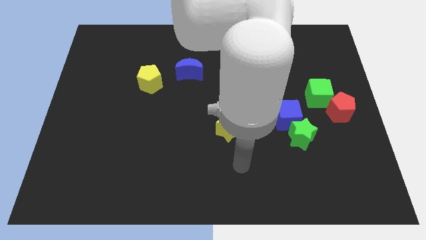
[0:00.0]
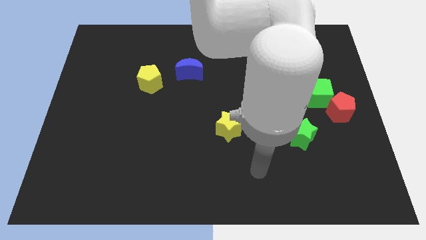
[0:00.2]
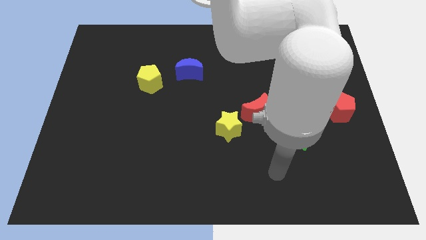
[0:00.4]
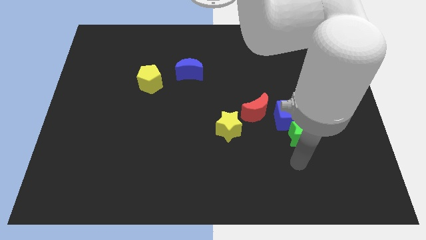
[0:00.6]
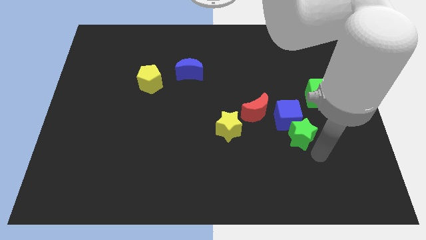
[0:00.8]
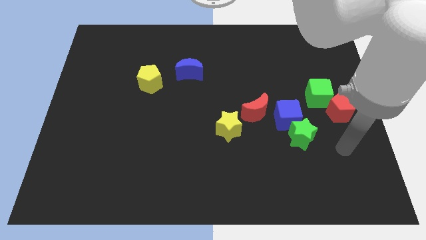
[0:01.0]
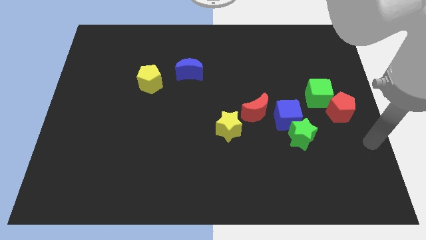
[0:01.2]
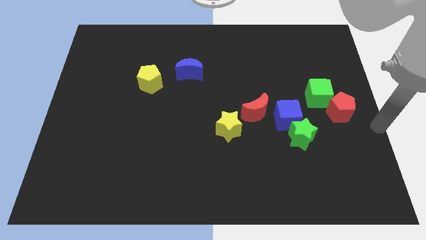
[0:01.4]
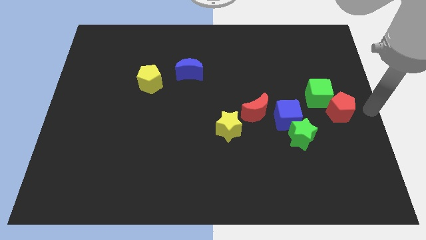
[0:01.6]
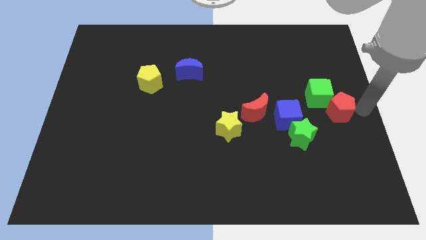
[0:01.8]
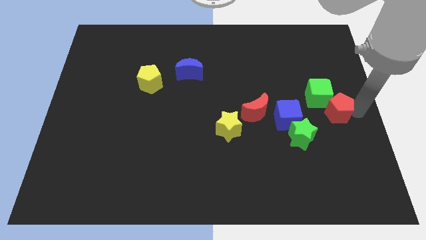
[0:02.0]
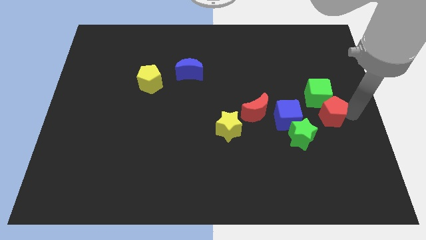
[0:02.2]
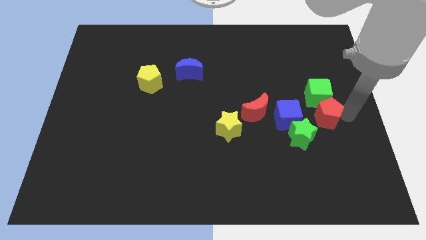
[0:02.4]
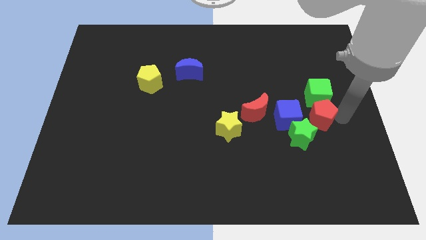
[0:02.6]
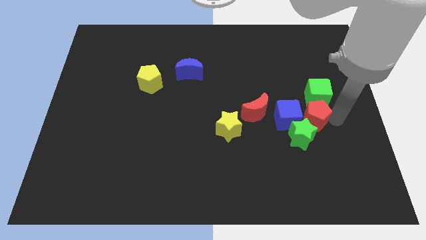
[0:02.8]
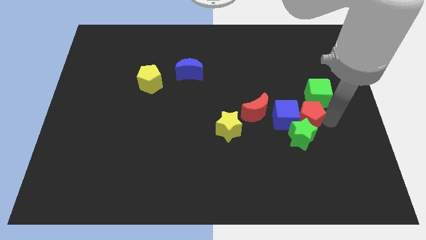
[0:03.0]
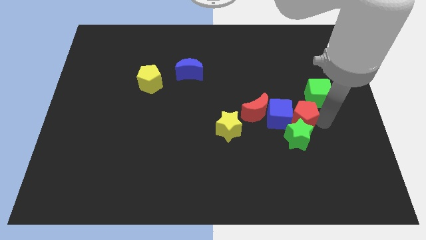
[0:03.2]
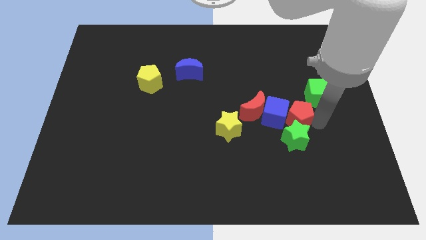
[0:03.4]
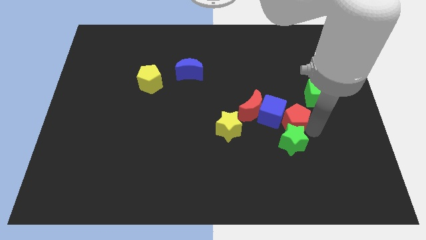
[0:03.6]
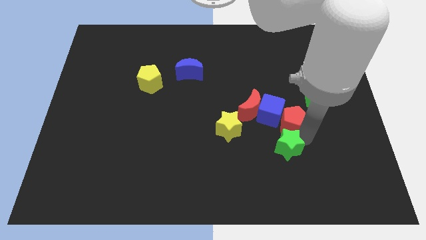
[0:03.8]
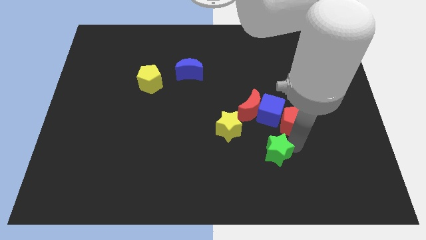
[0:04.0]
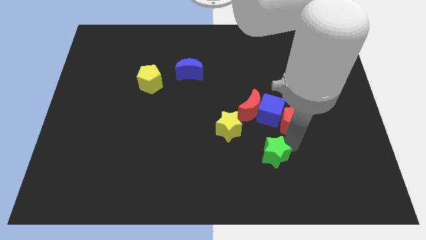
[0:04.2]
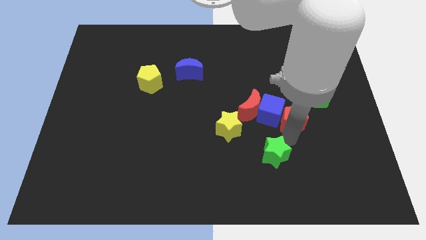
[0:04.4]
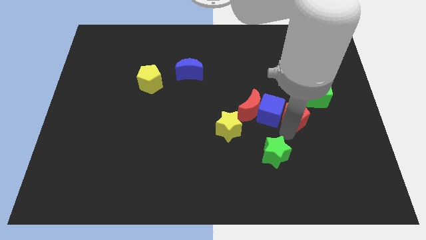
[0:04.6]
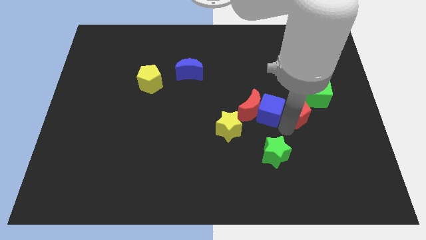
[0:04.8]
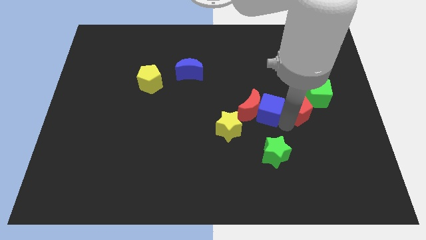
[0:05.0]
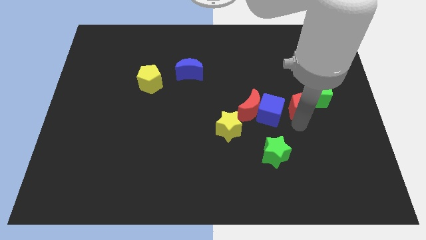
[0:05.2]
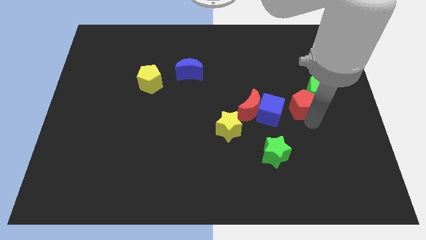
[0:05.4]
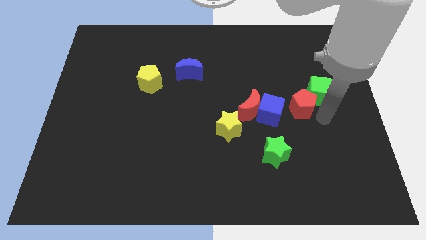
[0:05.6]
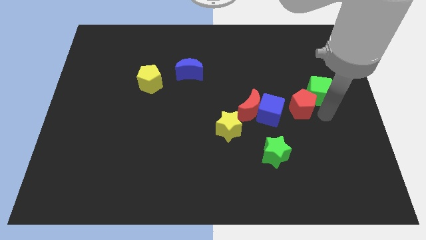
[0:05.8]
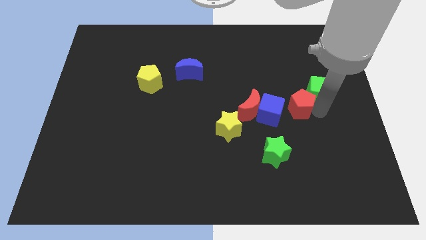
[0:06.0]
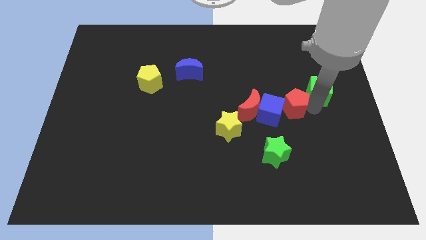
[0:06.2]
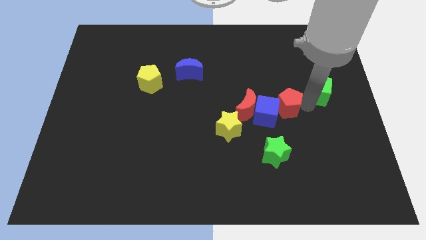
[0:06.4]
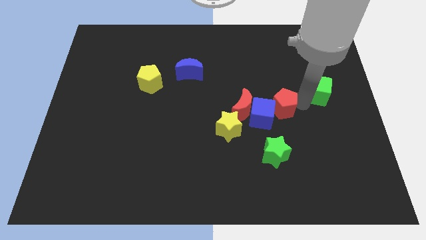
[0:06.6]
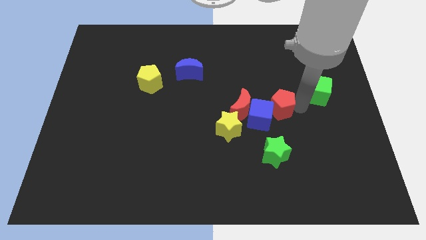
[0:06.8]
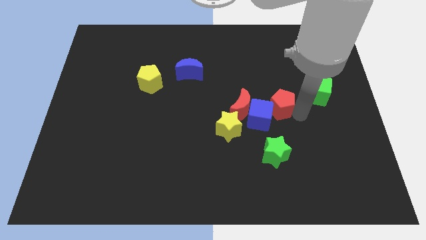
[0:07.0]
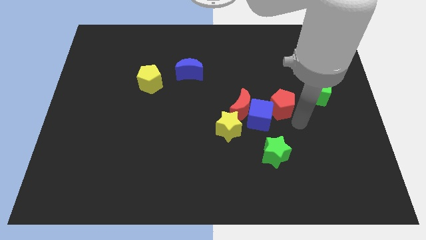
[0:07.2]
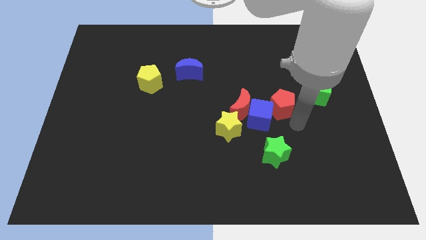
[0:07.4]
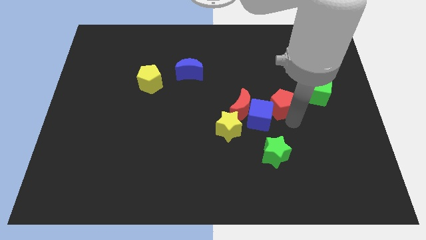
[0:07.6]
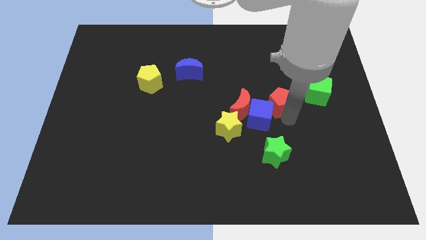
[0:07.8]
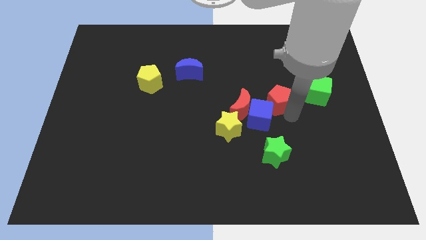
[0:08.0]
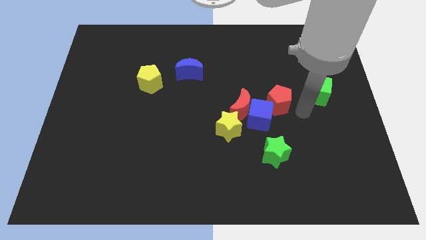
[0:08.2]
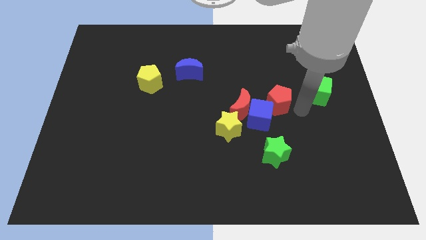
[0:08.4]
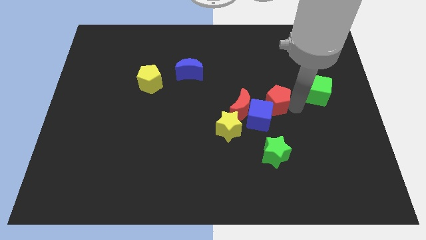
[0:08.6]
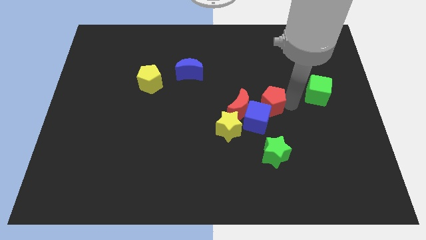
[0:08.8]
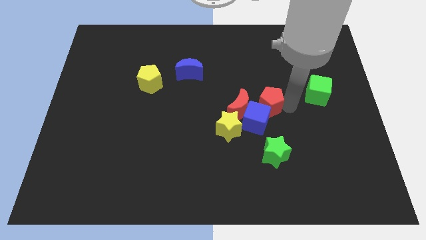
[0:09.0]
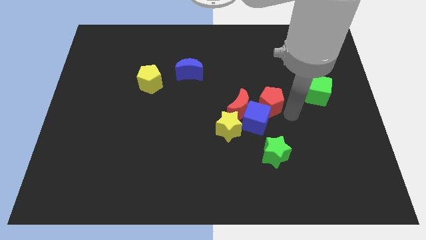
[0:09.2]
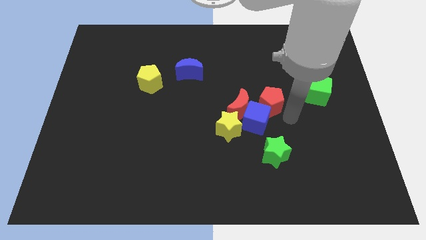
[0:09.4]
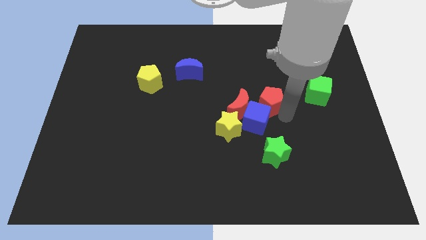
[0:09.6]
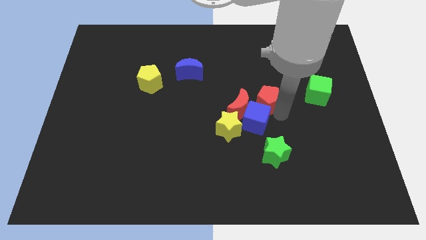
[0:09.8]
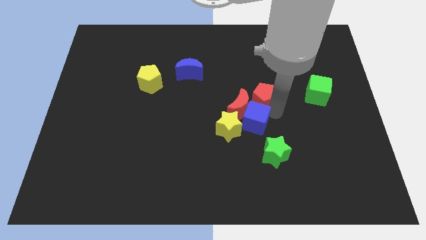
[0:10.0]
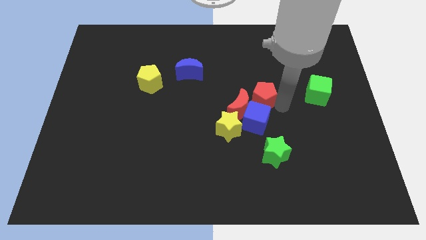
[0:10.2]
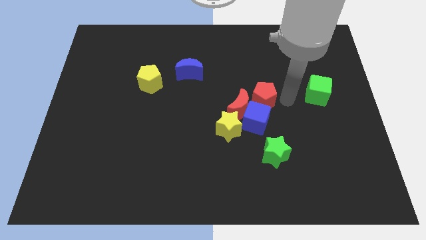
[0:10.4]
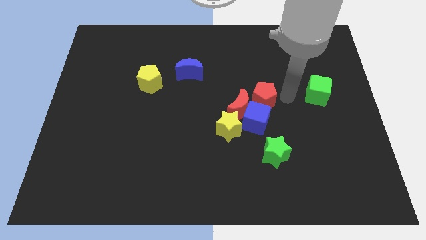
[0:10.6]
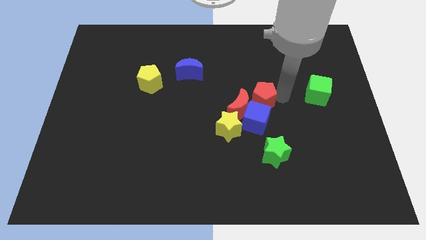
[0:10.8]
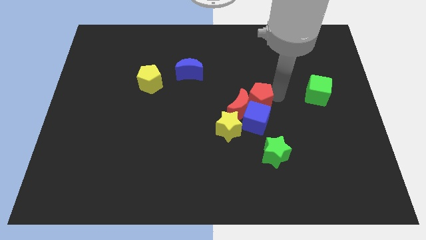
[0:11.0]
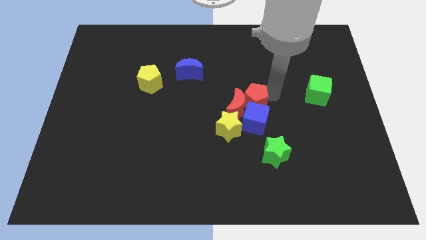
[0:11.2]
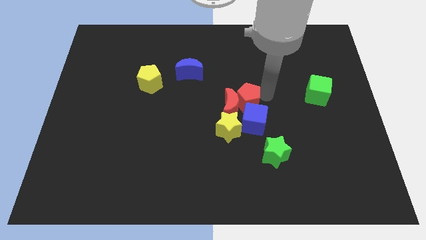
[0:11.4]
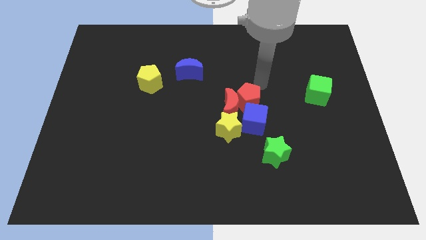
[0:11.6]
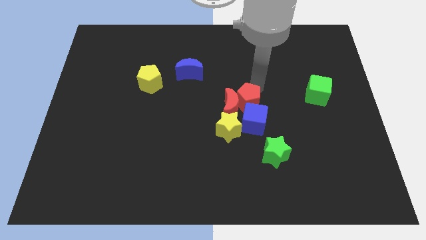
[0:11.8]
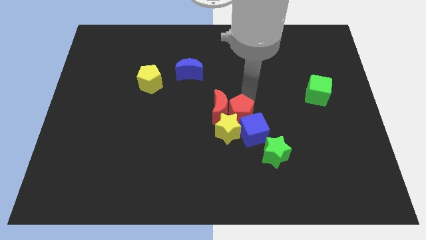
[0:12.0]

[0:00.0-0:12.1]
put the red pentagon next to the yellow star
